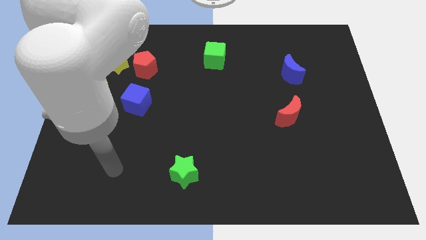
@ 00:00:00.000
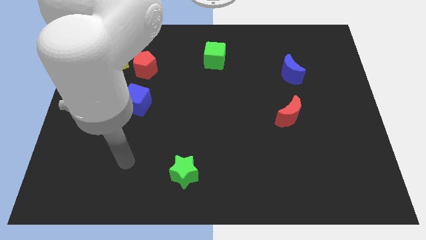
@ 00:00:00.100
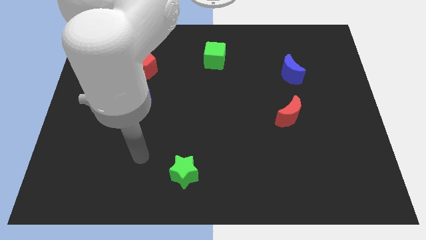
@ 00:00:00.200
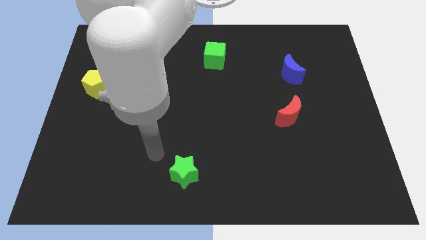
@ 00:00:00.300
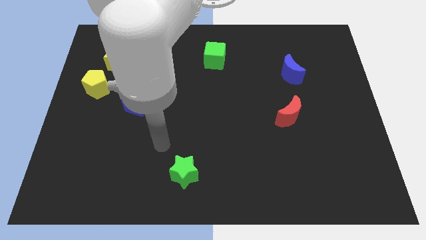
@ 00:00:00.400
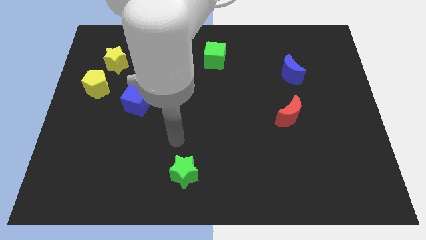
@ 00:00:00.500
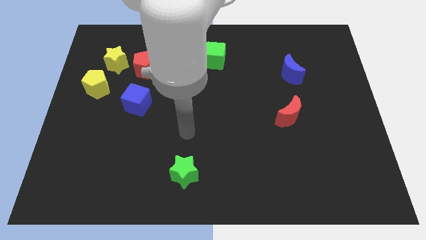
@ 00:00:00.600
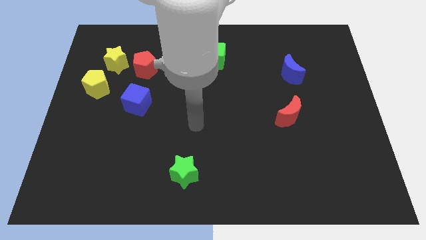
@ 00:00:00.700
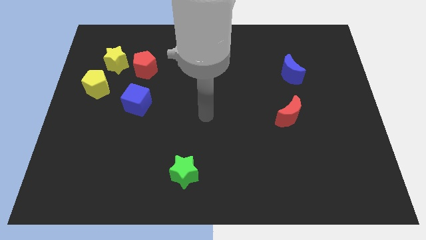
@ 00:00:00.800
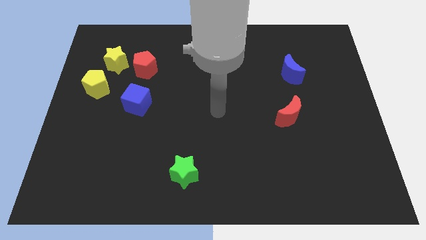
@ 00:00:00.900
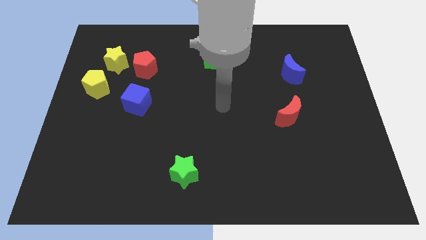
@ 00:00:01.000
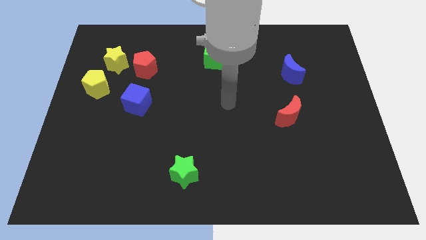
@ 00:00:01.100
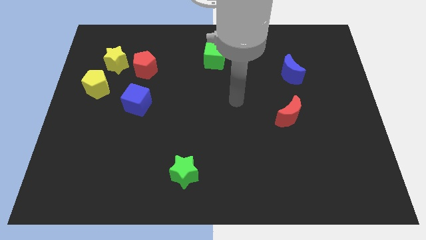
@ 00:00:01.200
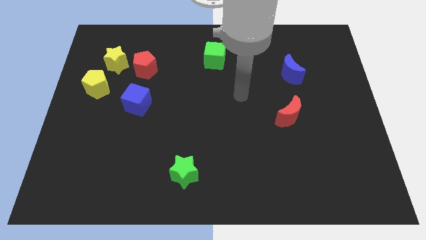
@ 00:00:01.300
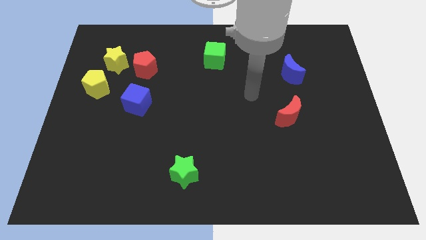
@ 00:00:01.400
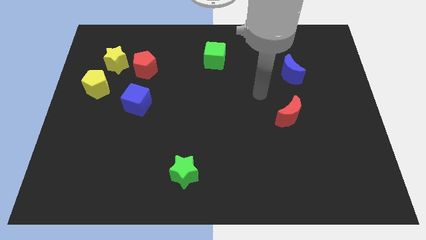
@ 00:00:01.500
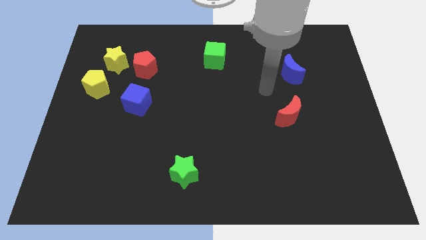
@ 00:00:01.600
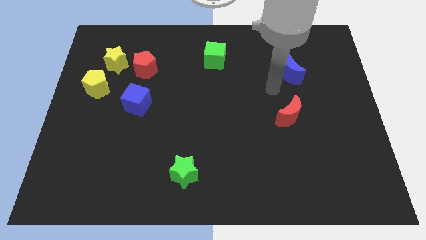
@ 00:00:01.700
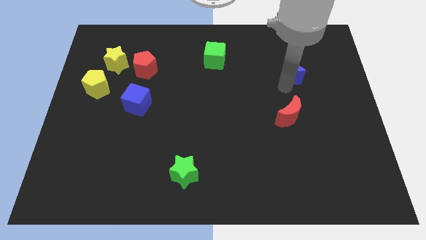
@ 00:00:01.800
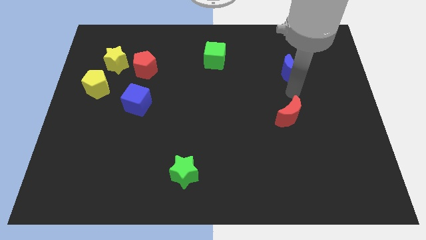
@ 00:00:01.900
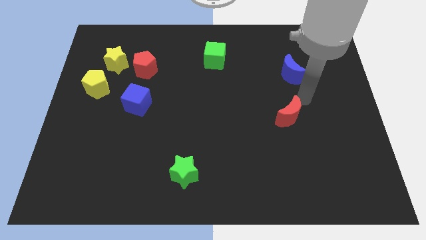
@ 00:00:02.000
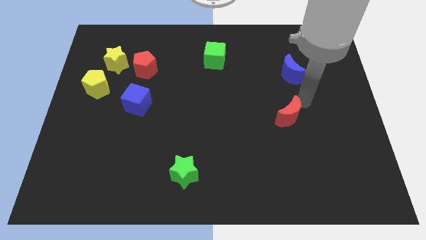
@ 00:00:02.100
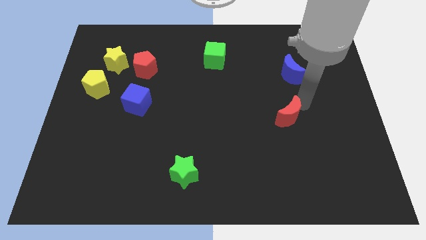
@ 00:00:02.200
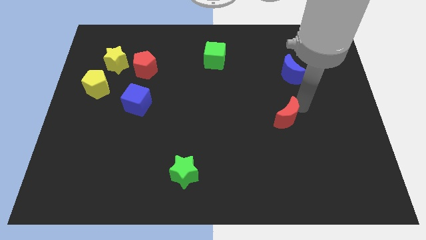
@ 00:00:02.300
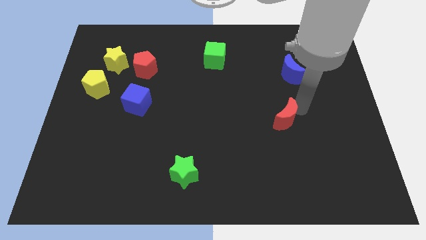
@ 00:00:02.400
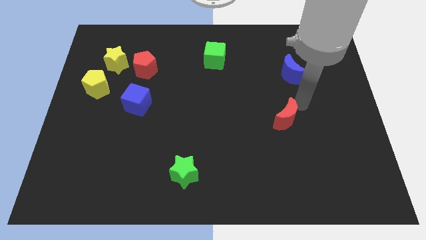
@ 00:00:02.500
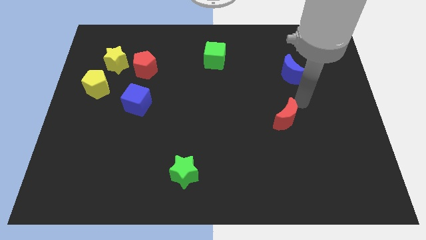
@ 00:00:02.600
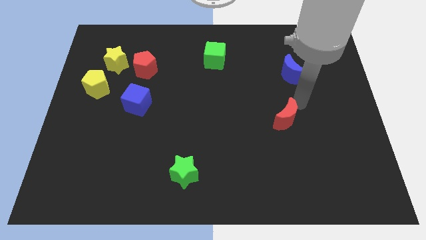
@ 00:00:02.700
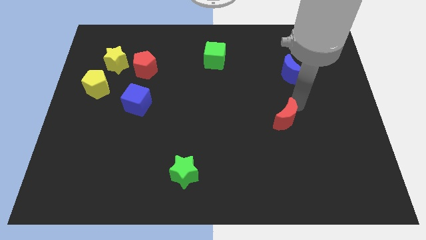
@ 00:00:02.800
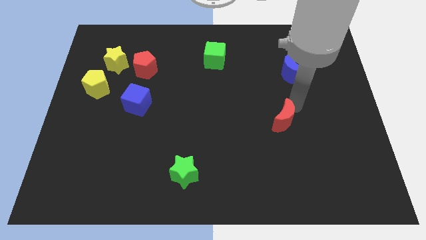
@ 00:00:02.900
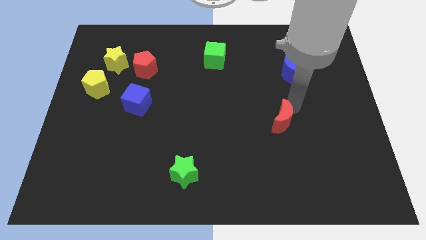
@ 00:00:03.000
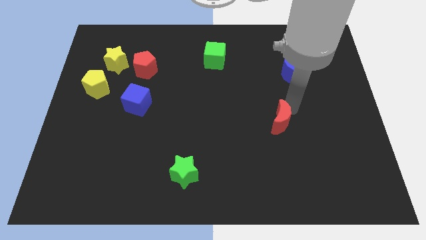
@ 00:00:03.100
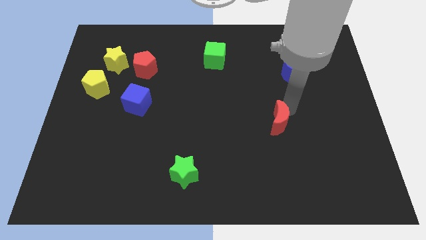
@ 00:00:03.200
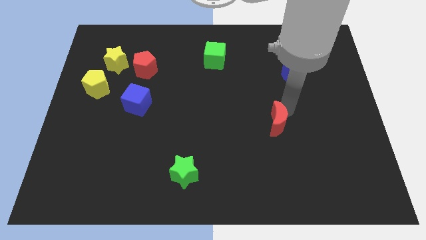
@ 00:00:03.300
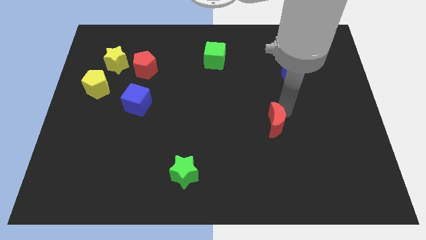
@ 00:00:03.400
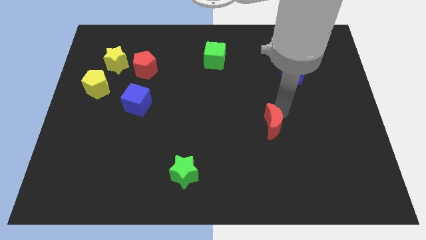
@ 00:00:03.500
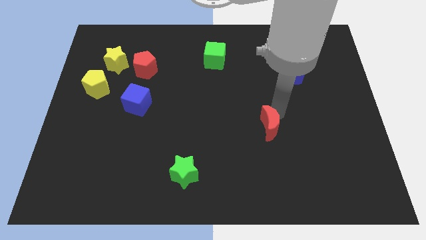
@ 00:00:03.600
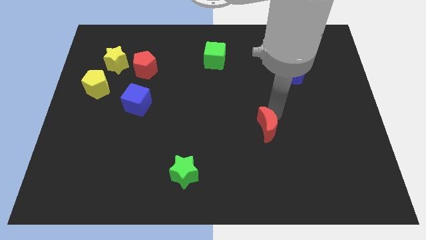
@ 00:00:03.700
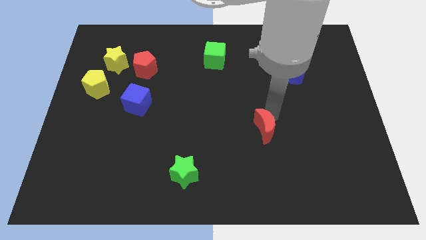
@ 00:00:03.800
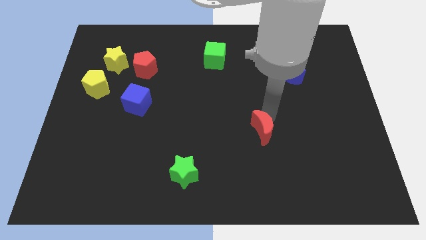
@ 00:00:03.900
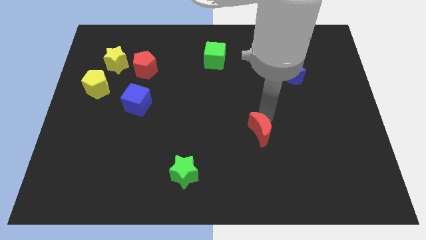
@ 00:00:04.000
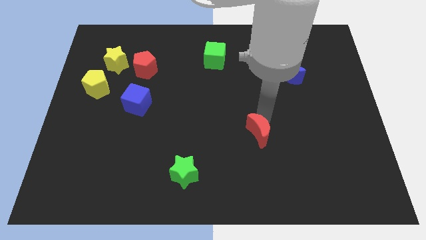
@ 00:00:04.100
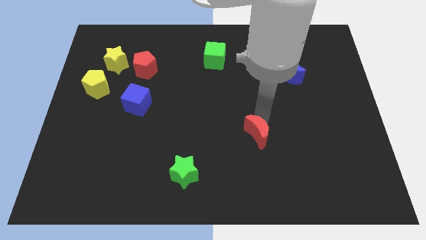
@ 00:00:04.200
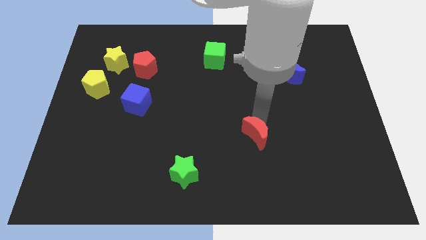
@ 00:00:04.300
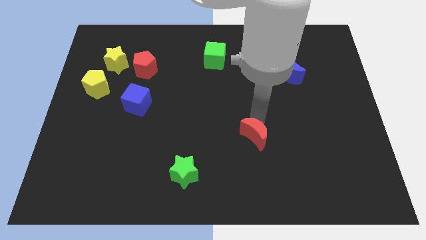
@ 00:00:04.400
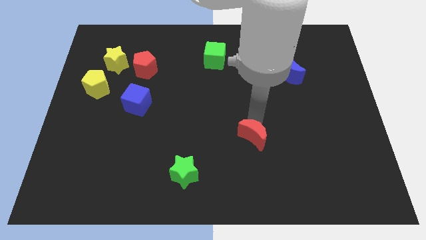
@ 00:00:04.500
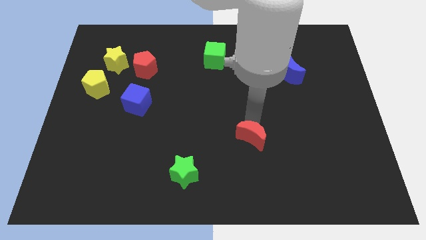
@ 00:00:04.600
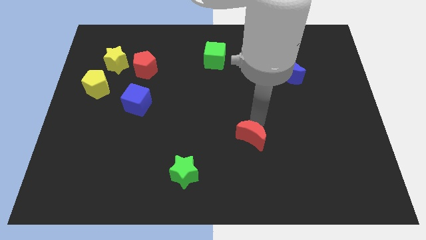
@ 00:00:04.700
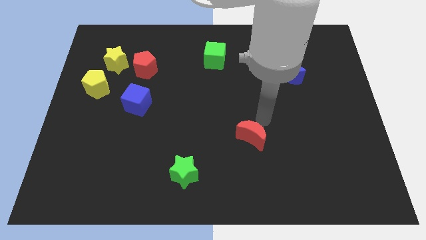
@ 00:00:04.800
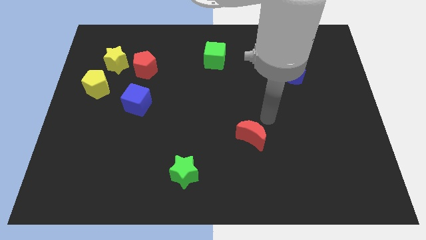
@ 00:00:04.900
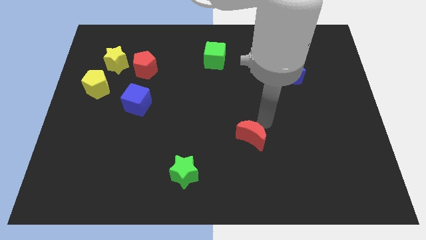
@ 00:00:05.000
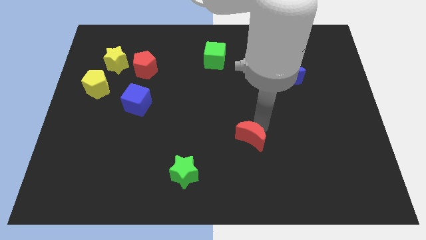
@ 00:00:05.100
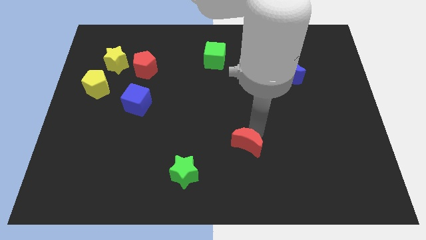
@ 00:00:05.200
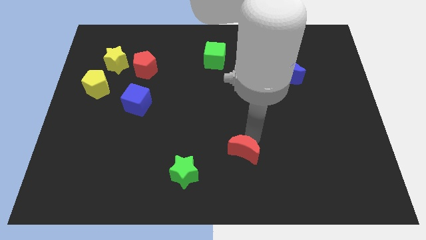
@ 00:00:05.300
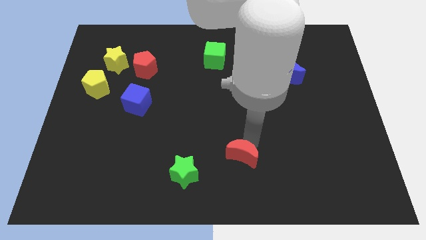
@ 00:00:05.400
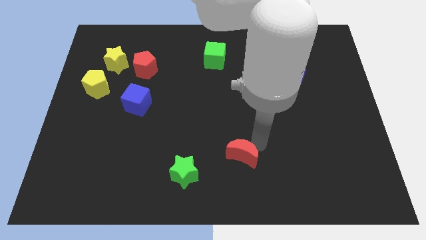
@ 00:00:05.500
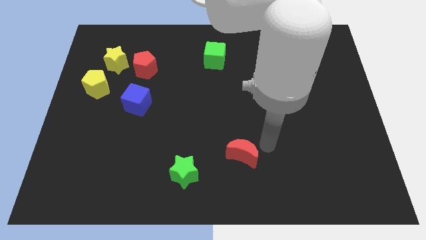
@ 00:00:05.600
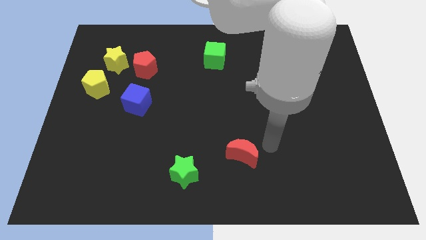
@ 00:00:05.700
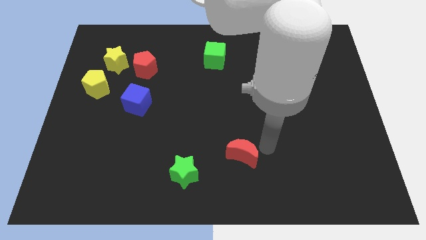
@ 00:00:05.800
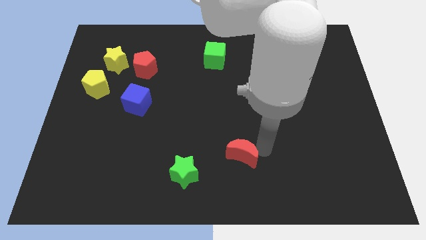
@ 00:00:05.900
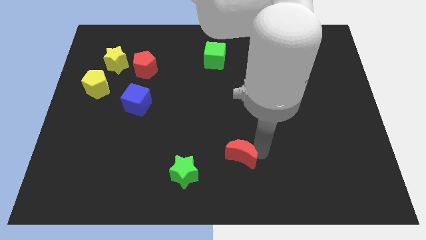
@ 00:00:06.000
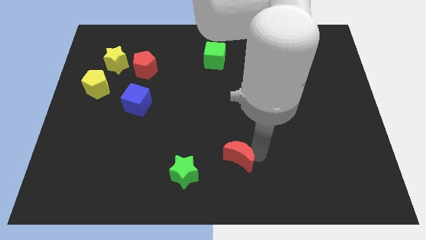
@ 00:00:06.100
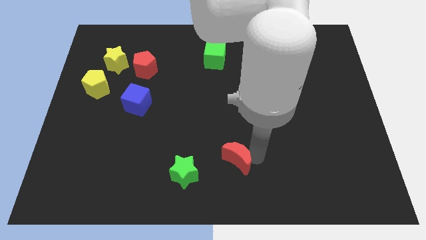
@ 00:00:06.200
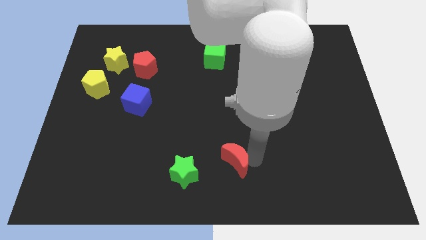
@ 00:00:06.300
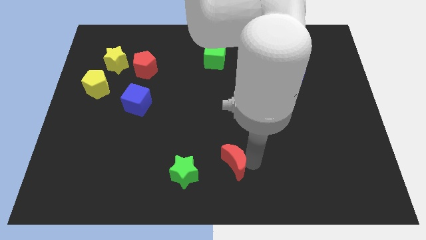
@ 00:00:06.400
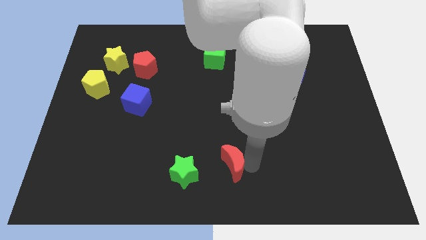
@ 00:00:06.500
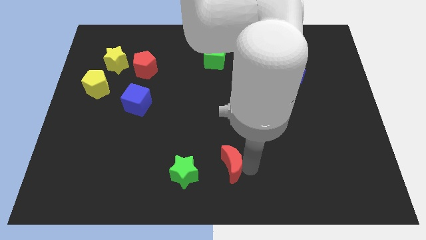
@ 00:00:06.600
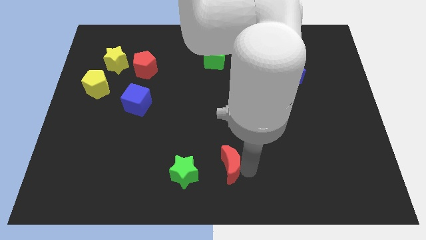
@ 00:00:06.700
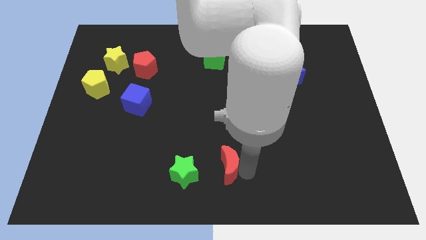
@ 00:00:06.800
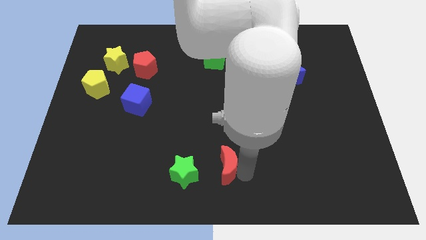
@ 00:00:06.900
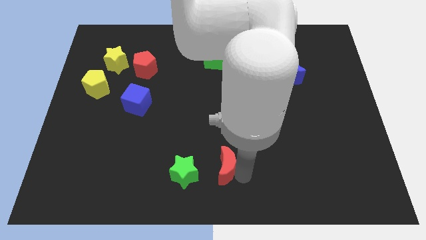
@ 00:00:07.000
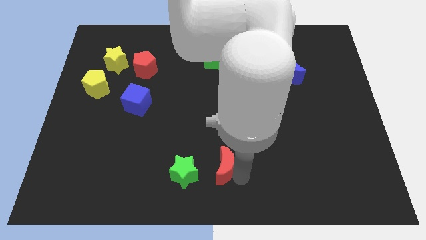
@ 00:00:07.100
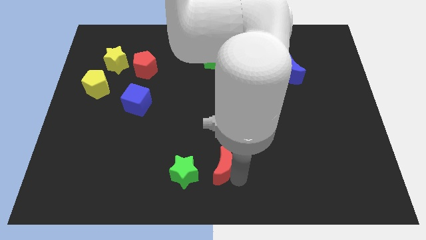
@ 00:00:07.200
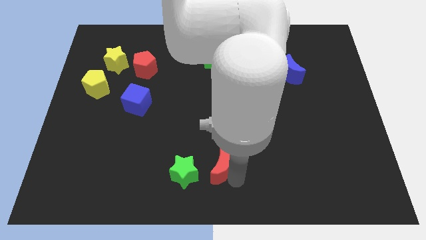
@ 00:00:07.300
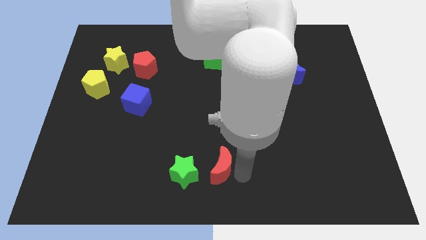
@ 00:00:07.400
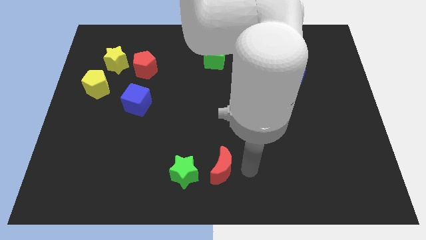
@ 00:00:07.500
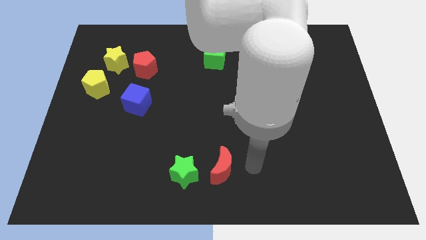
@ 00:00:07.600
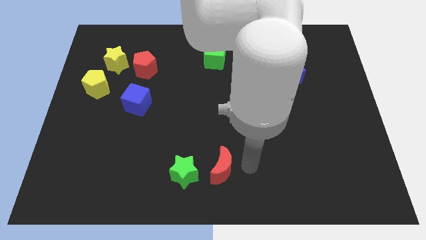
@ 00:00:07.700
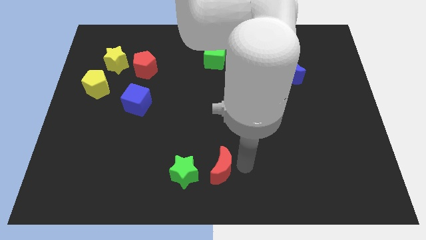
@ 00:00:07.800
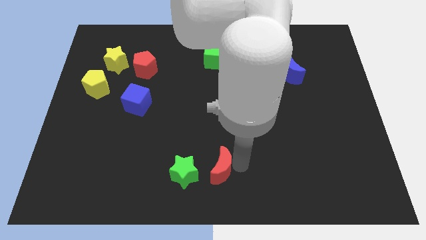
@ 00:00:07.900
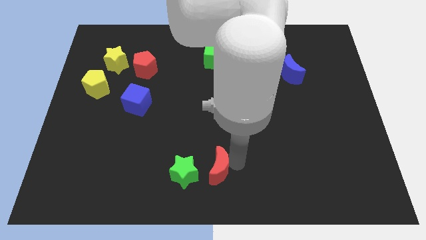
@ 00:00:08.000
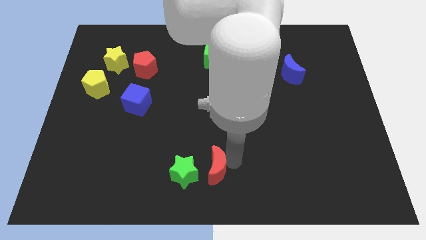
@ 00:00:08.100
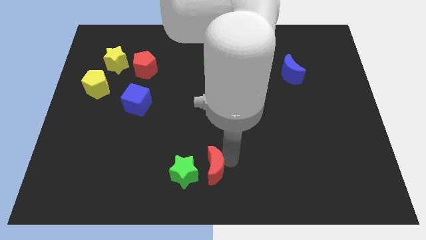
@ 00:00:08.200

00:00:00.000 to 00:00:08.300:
move the red moon next to the green star
